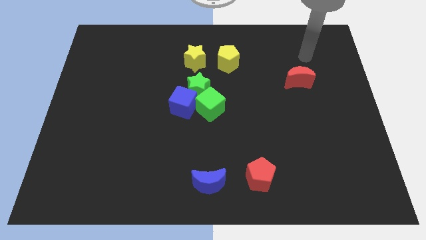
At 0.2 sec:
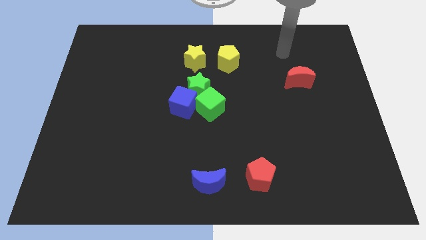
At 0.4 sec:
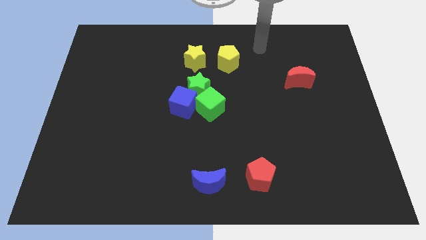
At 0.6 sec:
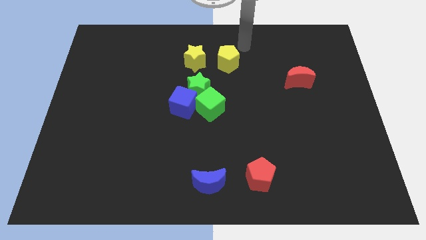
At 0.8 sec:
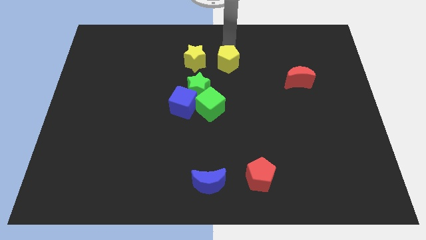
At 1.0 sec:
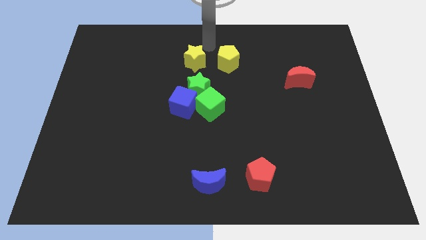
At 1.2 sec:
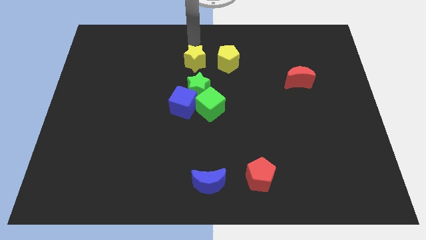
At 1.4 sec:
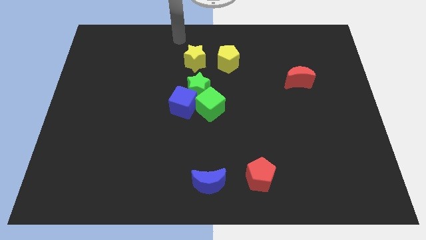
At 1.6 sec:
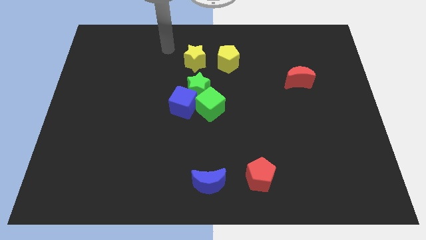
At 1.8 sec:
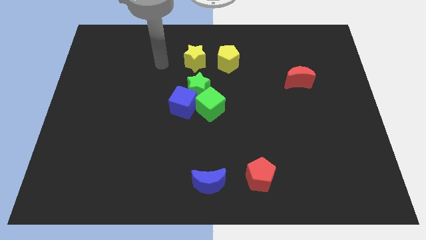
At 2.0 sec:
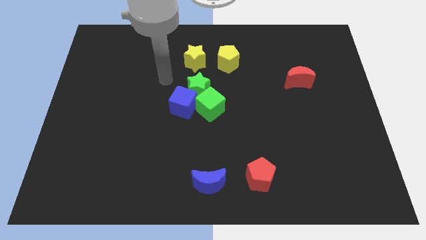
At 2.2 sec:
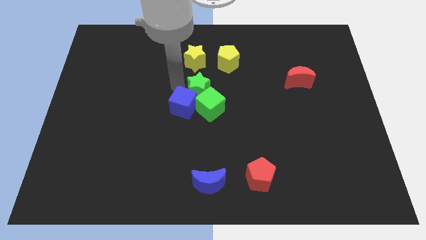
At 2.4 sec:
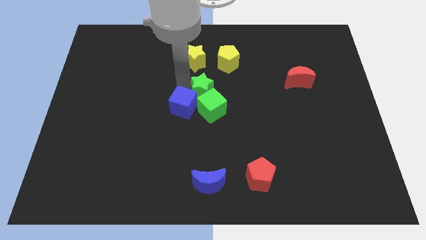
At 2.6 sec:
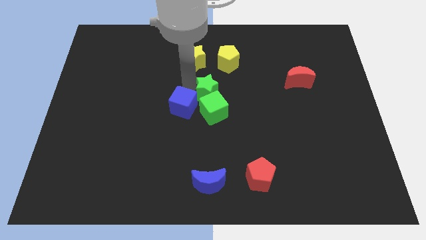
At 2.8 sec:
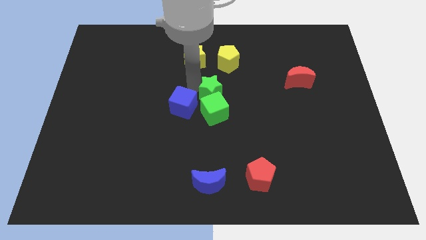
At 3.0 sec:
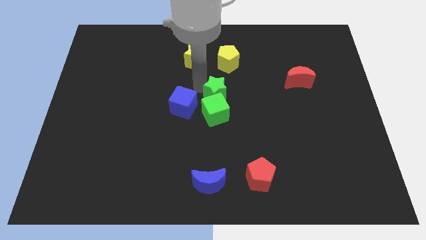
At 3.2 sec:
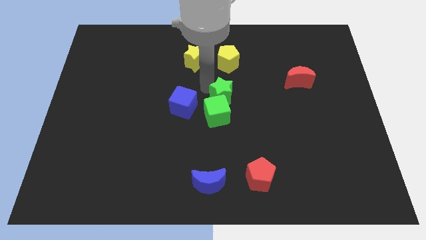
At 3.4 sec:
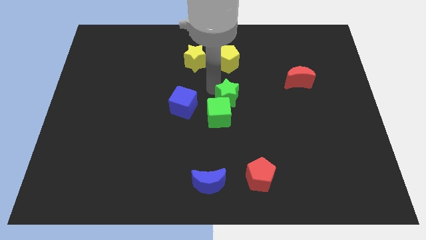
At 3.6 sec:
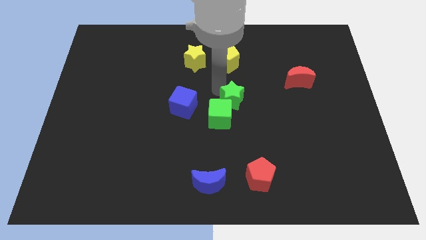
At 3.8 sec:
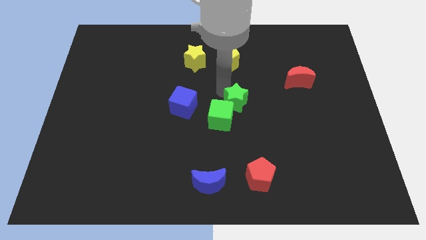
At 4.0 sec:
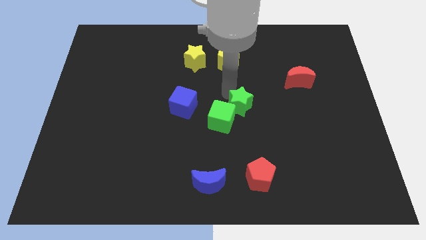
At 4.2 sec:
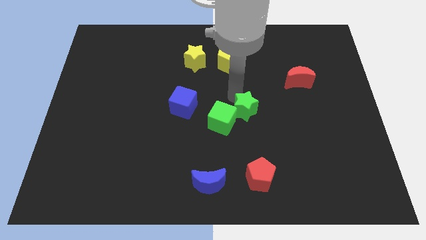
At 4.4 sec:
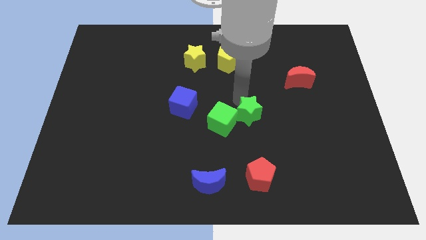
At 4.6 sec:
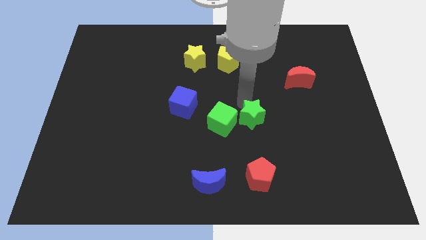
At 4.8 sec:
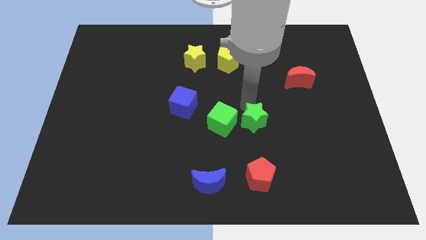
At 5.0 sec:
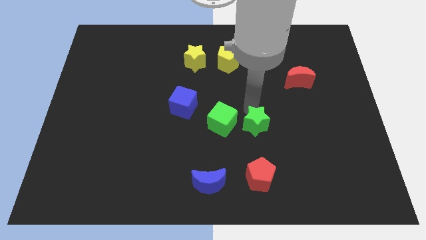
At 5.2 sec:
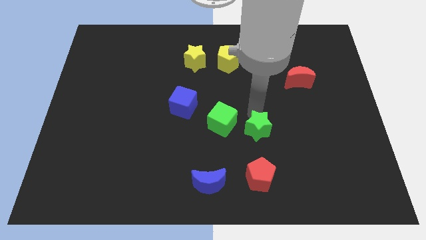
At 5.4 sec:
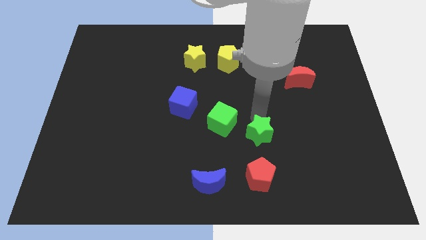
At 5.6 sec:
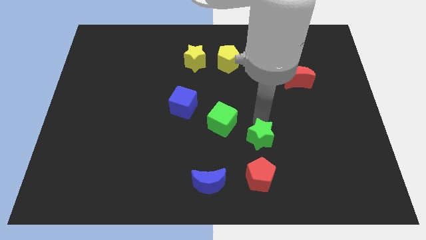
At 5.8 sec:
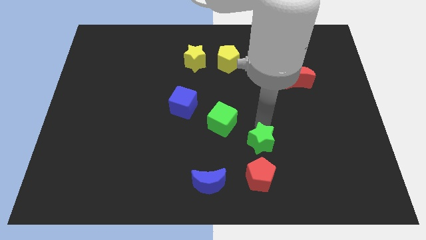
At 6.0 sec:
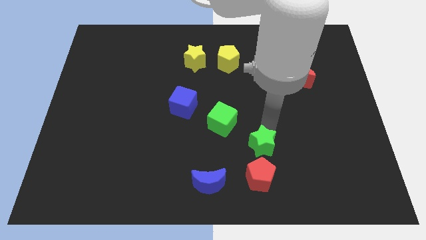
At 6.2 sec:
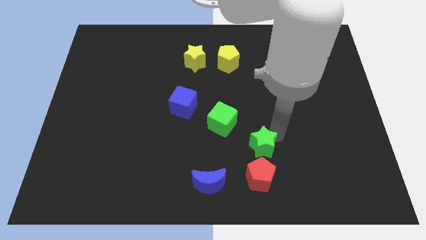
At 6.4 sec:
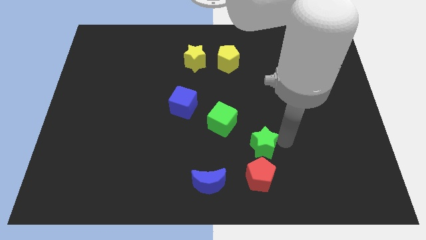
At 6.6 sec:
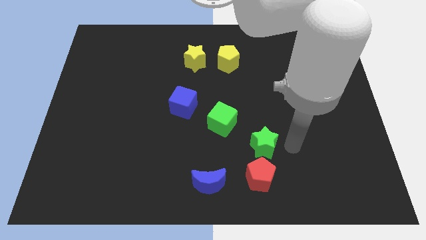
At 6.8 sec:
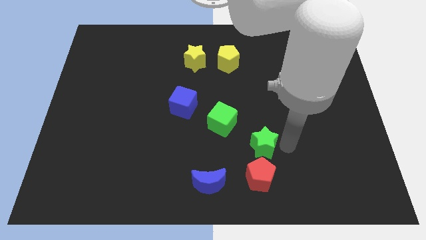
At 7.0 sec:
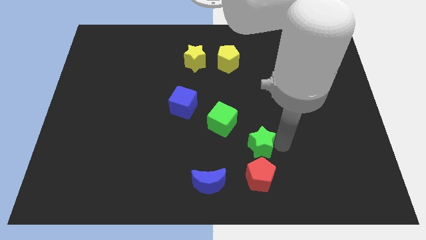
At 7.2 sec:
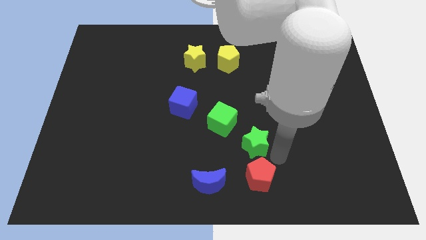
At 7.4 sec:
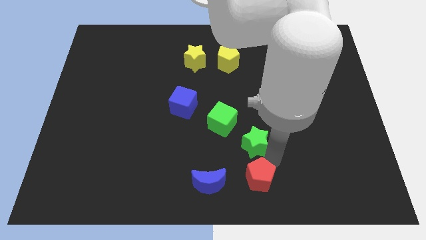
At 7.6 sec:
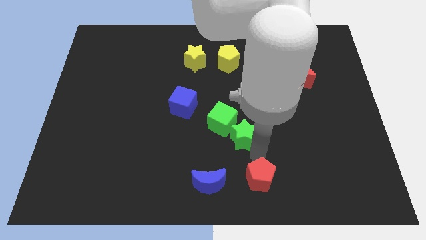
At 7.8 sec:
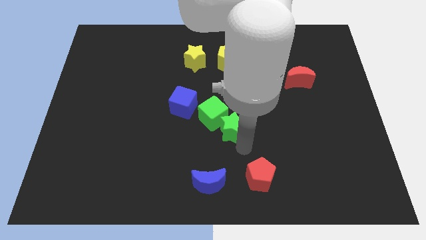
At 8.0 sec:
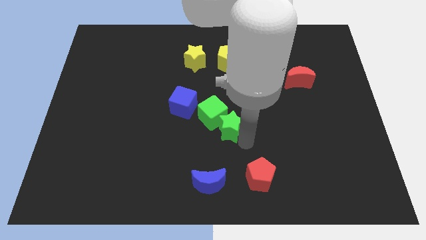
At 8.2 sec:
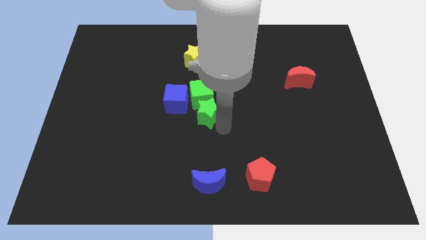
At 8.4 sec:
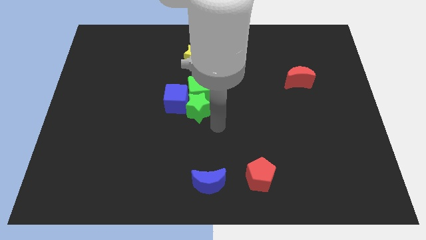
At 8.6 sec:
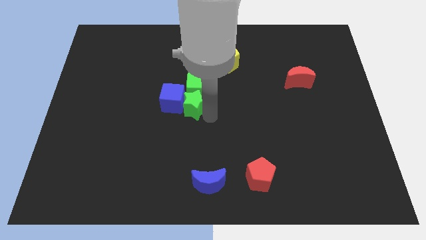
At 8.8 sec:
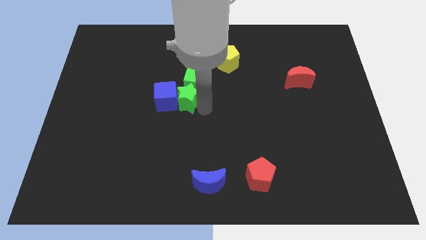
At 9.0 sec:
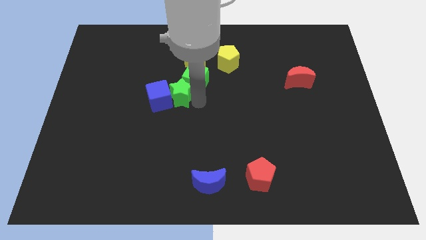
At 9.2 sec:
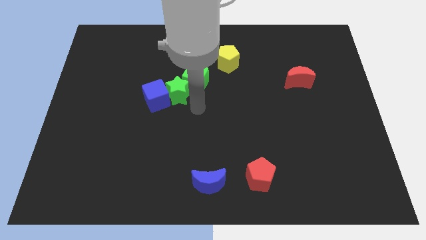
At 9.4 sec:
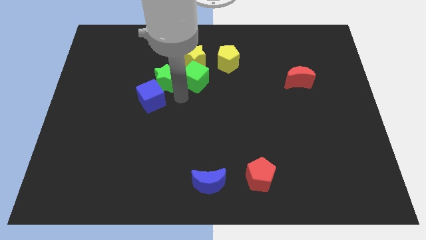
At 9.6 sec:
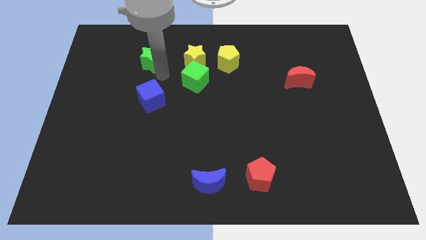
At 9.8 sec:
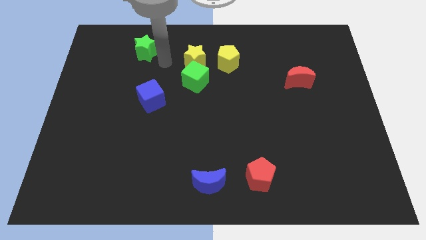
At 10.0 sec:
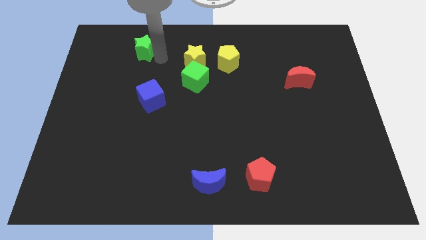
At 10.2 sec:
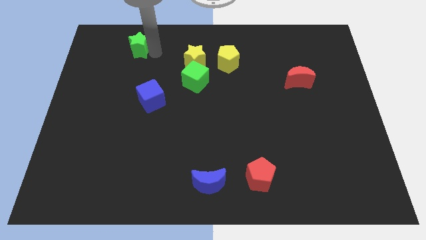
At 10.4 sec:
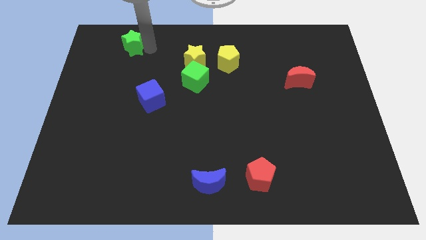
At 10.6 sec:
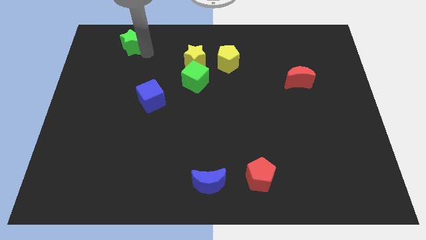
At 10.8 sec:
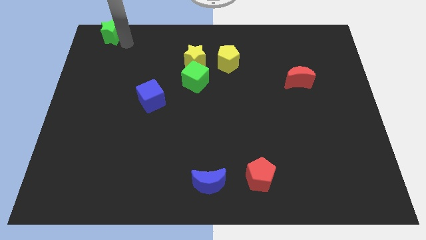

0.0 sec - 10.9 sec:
put the green star to the upper left corner

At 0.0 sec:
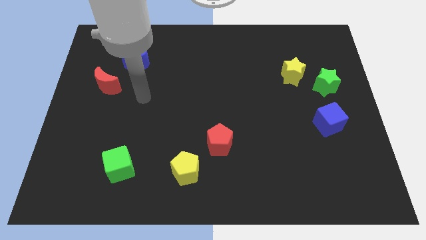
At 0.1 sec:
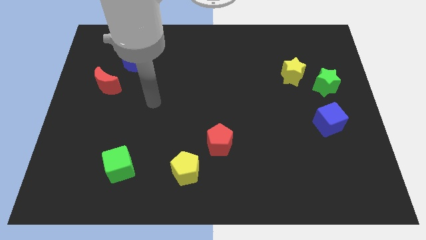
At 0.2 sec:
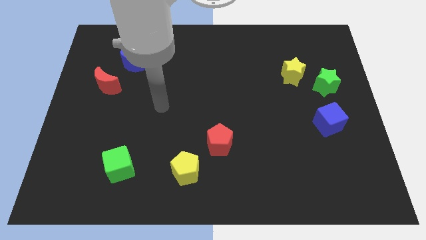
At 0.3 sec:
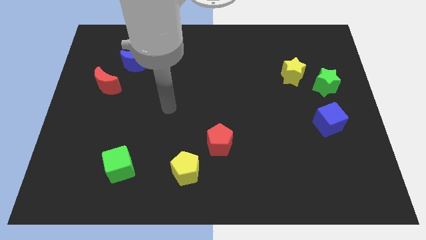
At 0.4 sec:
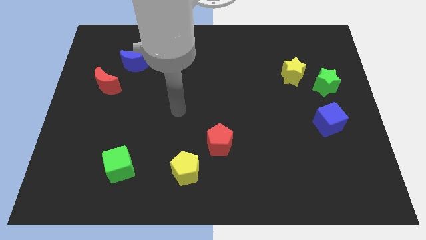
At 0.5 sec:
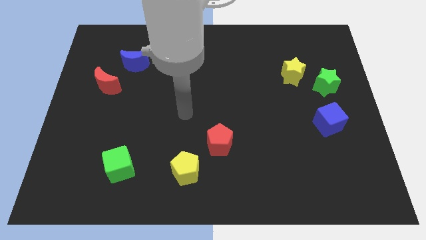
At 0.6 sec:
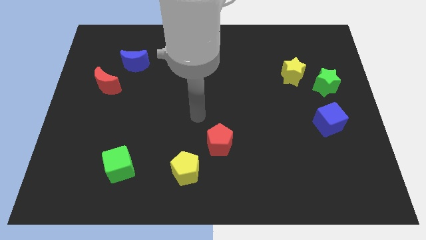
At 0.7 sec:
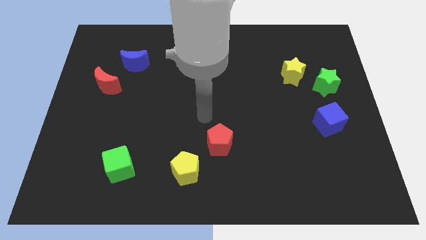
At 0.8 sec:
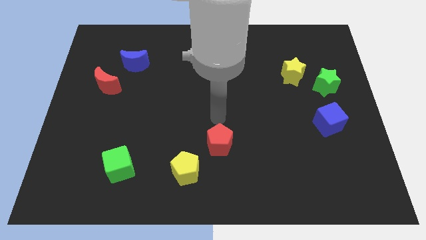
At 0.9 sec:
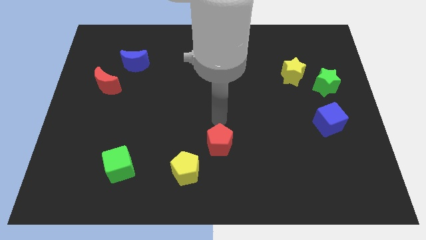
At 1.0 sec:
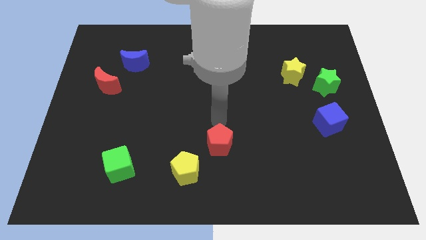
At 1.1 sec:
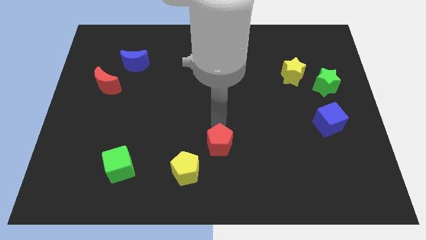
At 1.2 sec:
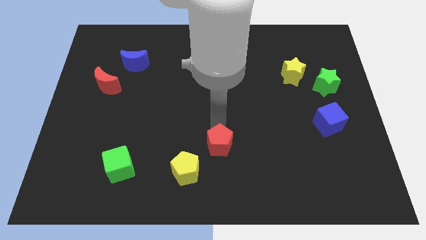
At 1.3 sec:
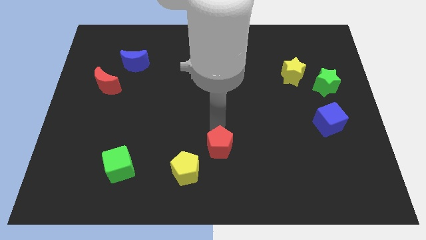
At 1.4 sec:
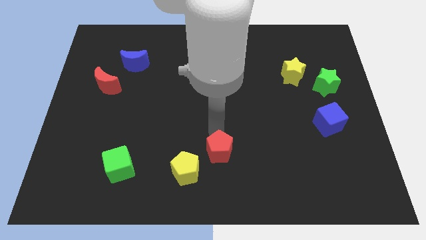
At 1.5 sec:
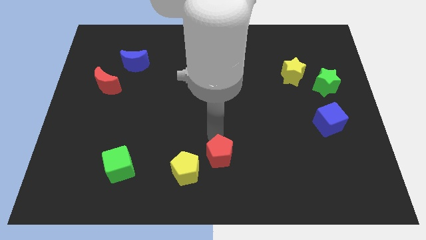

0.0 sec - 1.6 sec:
push the red pentagon to the bottom
